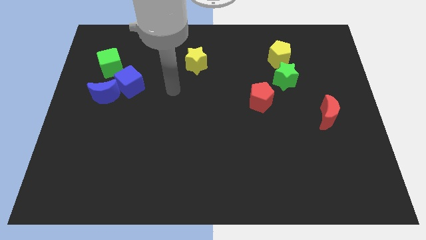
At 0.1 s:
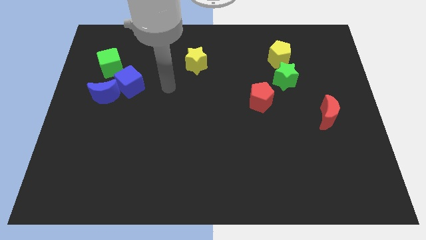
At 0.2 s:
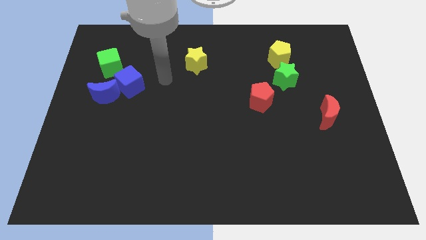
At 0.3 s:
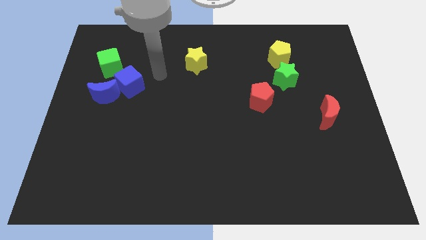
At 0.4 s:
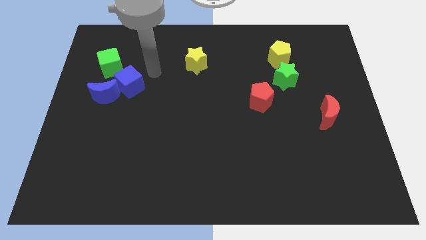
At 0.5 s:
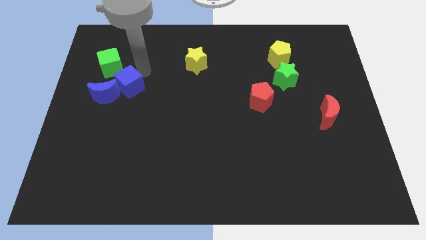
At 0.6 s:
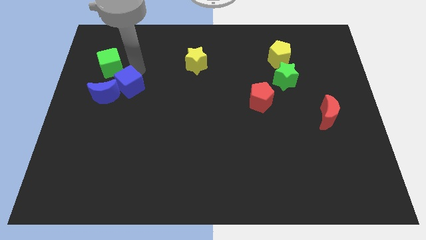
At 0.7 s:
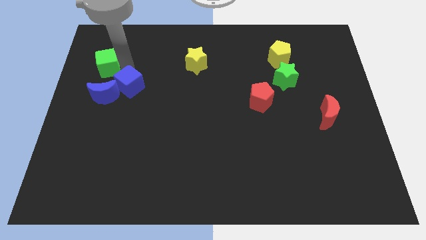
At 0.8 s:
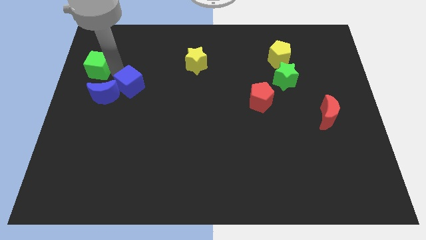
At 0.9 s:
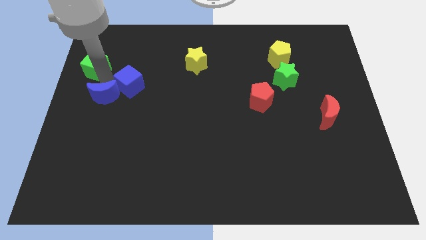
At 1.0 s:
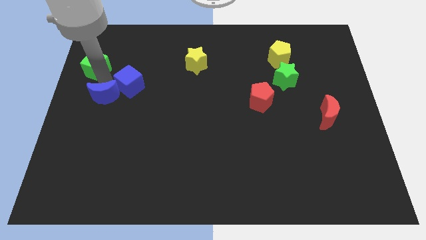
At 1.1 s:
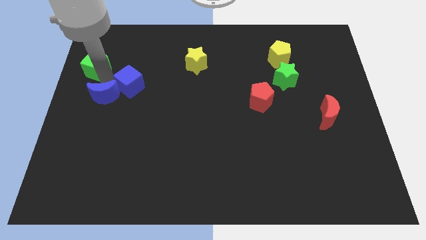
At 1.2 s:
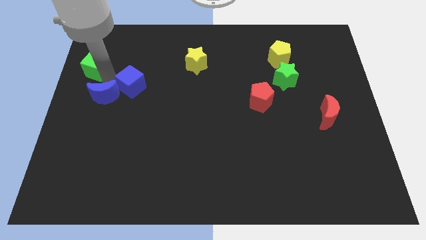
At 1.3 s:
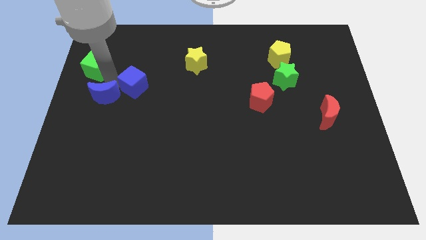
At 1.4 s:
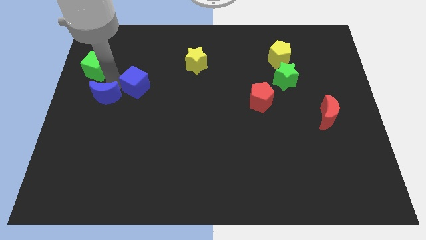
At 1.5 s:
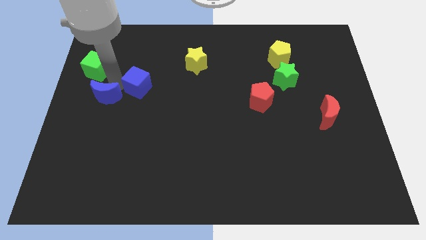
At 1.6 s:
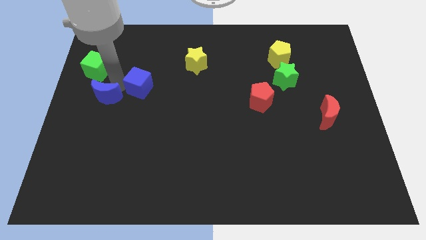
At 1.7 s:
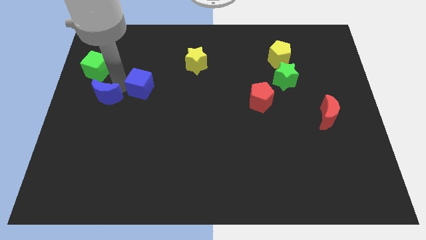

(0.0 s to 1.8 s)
separate the blue cube from the blue moon and green cube

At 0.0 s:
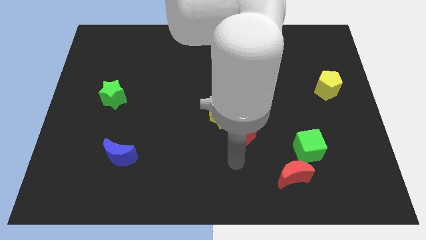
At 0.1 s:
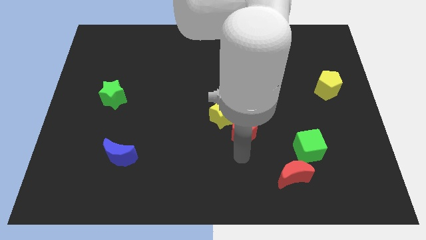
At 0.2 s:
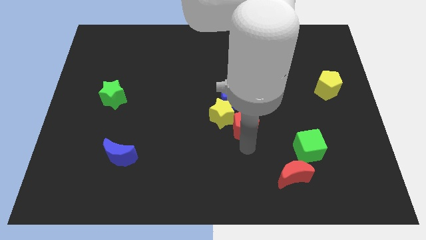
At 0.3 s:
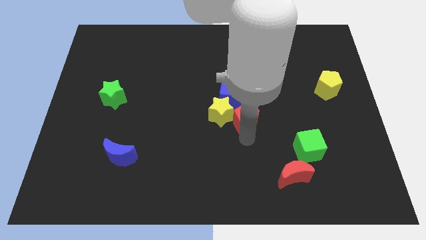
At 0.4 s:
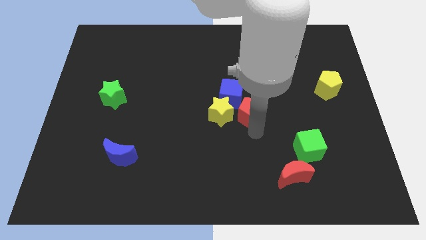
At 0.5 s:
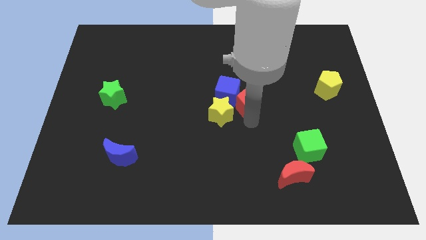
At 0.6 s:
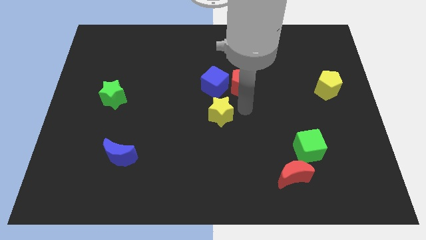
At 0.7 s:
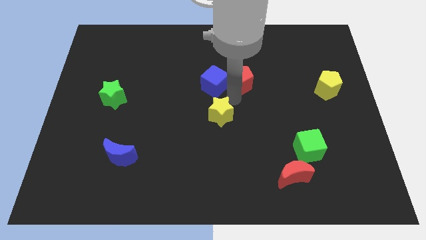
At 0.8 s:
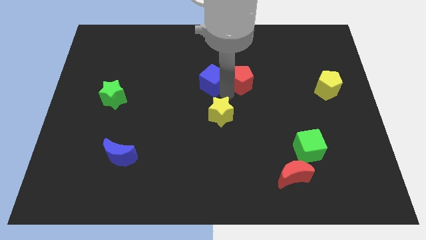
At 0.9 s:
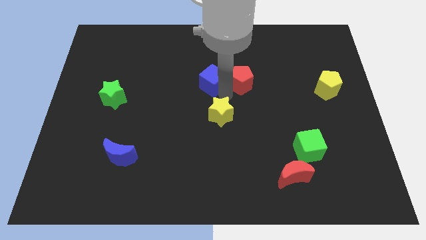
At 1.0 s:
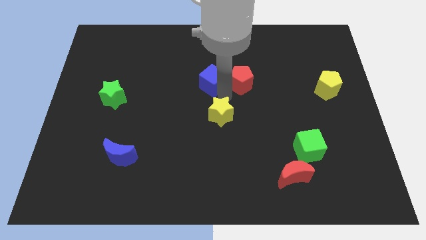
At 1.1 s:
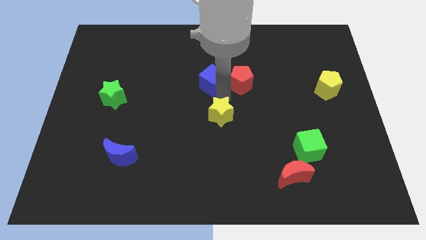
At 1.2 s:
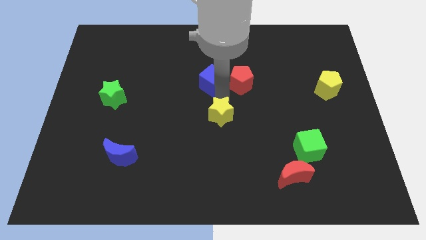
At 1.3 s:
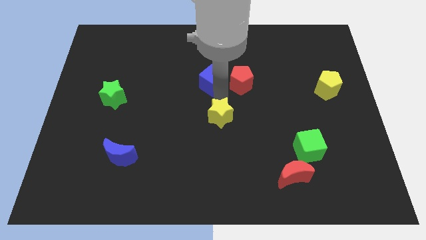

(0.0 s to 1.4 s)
pull the yellow star apart from the blue cube and red pentagon

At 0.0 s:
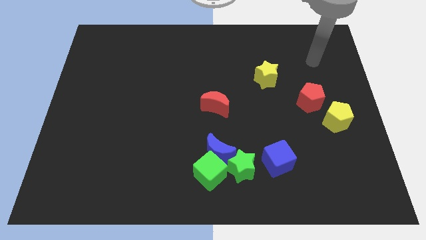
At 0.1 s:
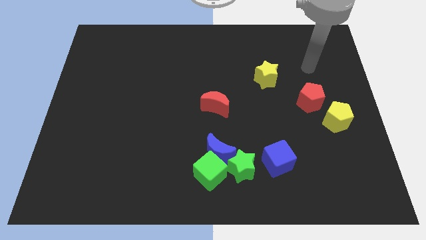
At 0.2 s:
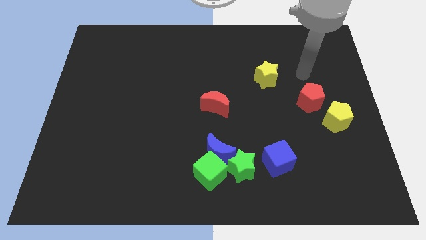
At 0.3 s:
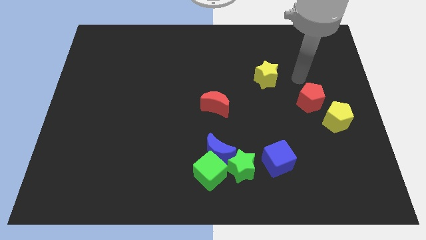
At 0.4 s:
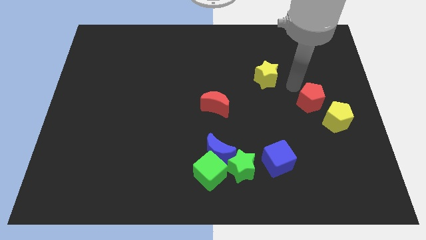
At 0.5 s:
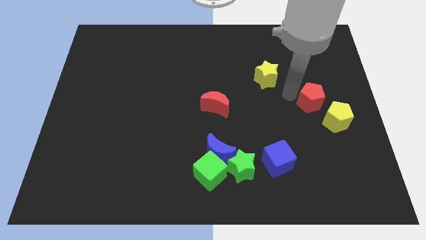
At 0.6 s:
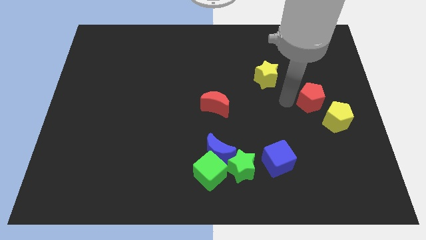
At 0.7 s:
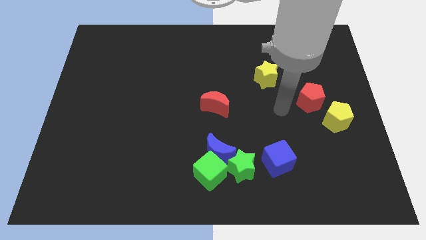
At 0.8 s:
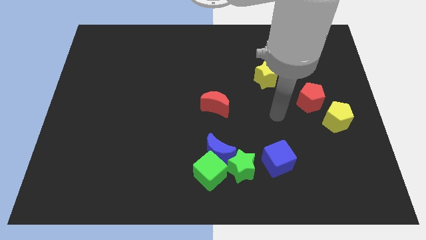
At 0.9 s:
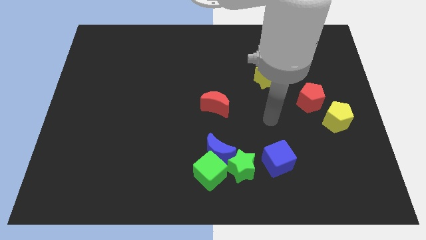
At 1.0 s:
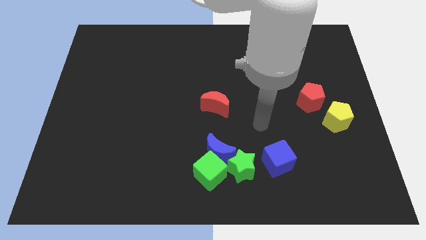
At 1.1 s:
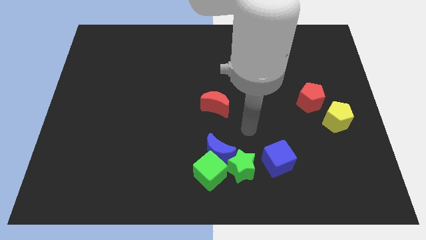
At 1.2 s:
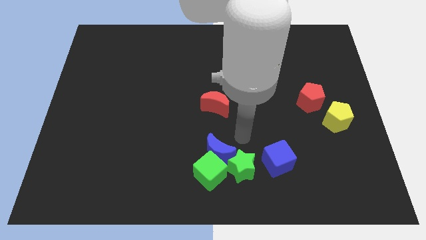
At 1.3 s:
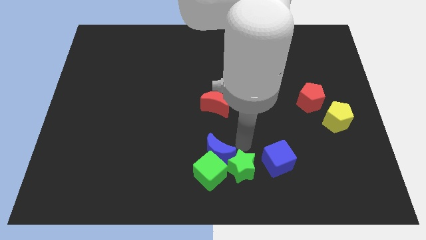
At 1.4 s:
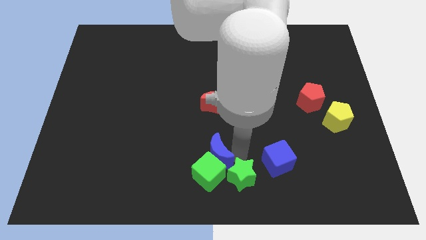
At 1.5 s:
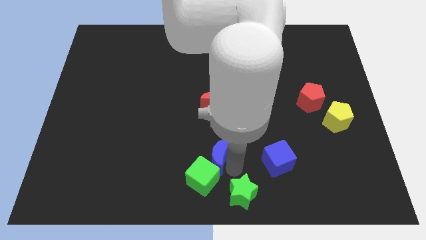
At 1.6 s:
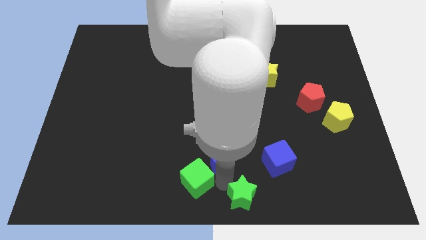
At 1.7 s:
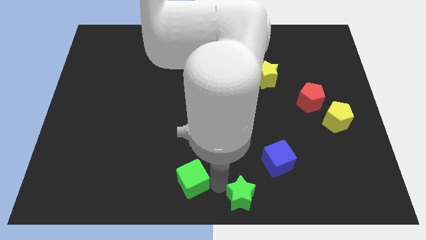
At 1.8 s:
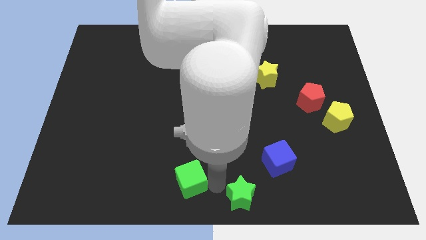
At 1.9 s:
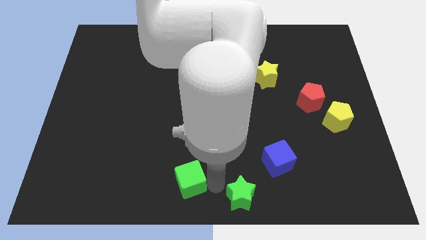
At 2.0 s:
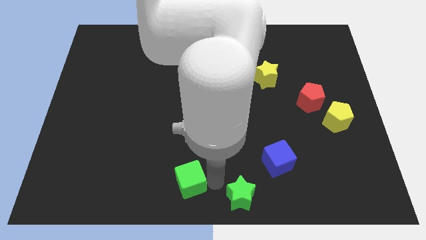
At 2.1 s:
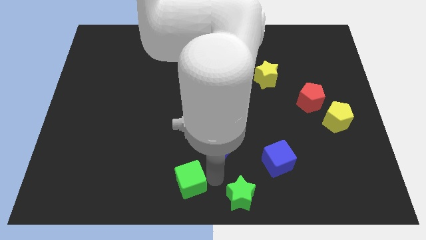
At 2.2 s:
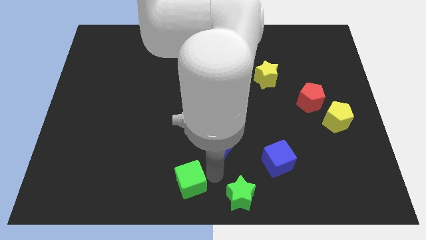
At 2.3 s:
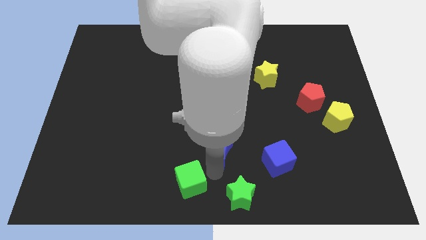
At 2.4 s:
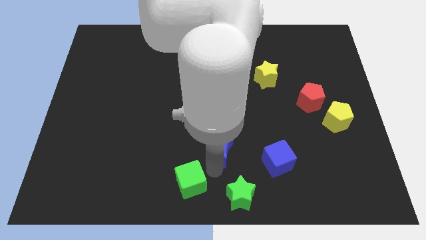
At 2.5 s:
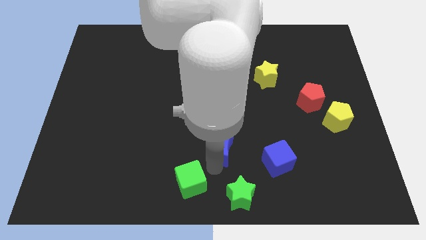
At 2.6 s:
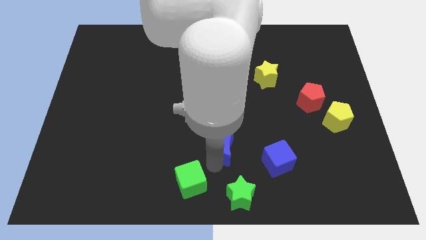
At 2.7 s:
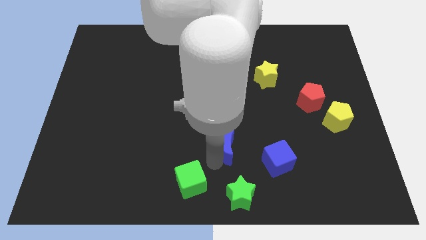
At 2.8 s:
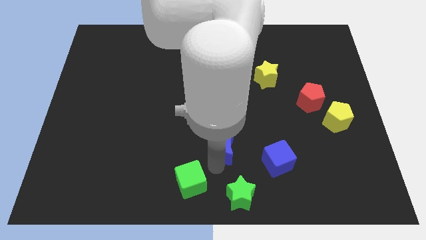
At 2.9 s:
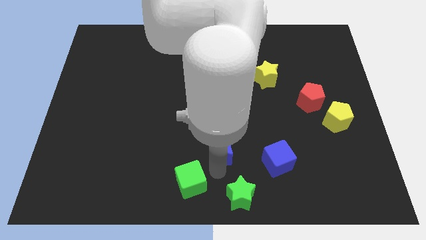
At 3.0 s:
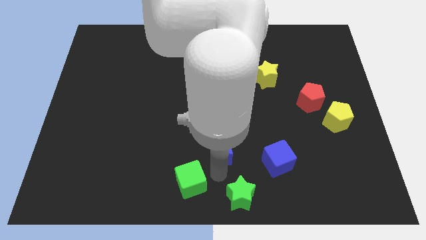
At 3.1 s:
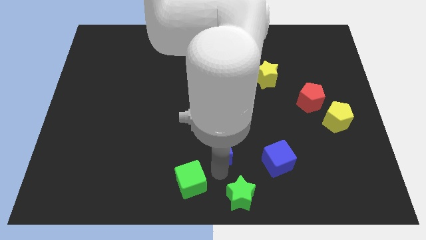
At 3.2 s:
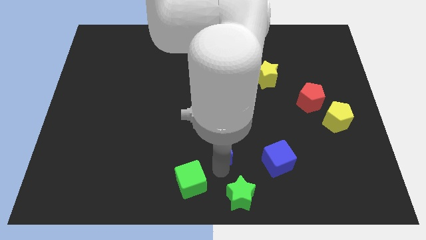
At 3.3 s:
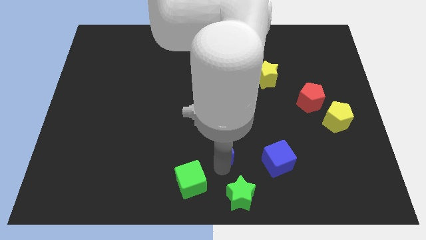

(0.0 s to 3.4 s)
separate the blue moon from the green cube and green star

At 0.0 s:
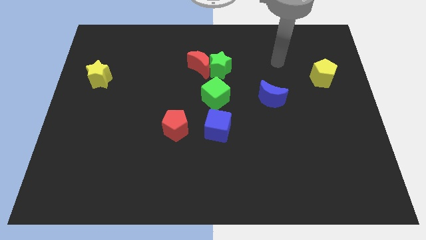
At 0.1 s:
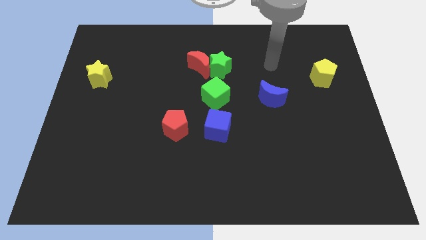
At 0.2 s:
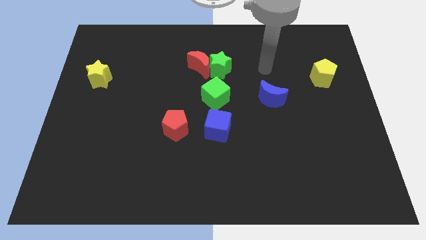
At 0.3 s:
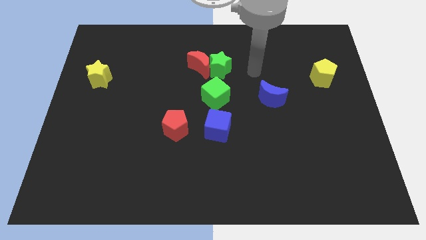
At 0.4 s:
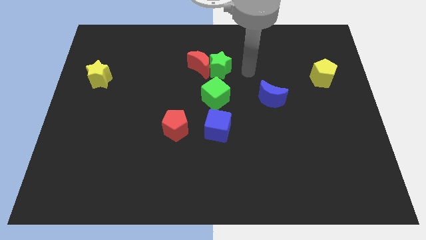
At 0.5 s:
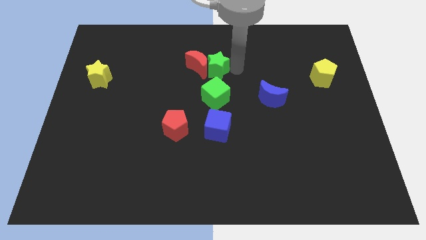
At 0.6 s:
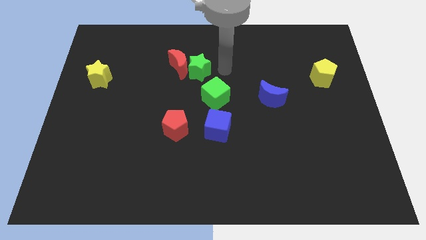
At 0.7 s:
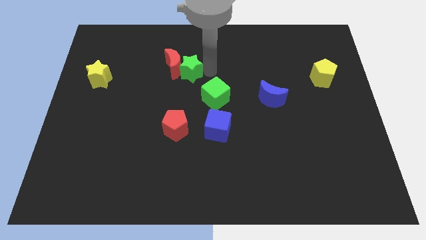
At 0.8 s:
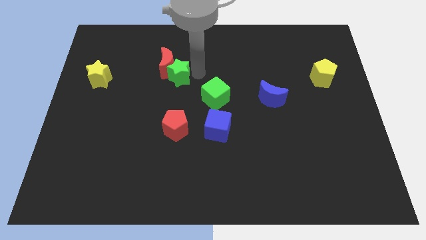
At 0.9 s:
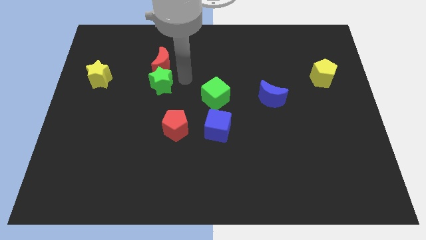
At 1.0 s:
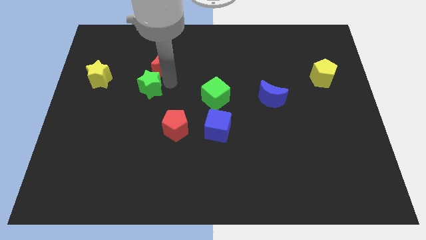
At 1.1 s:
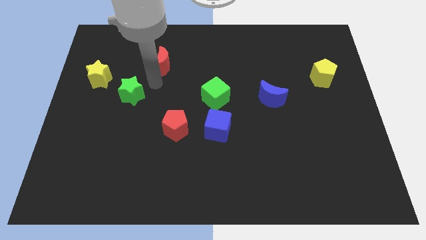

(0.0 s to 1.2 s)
separate the red moon from the green star

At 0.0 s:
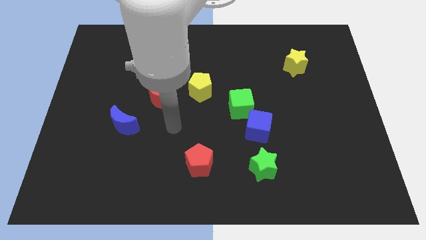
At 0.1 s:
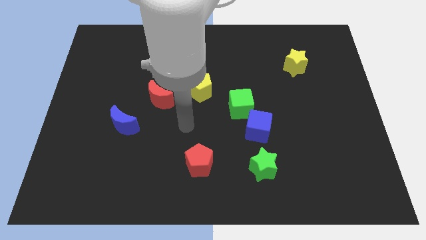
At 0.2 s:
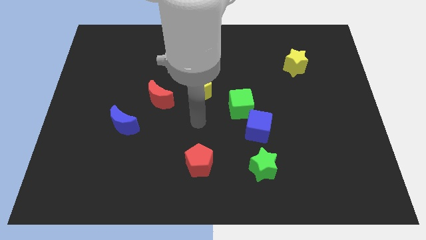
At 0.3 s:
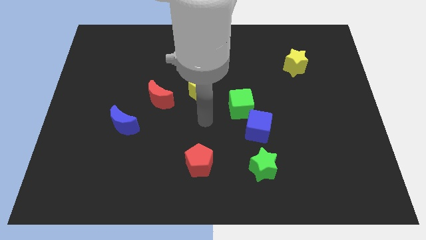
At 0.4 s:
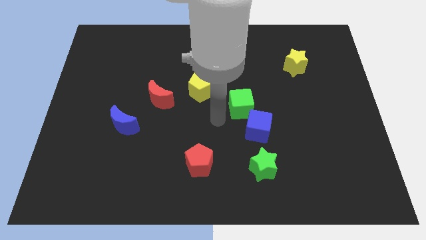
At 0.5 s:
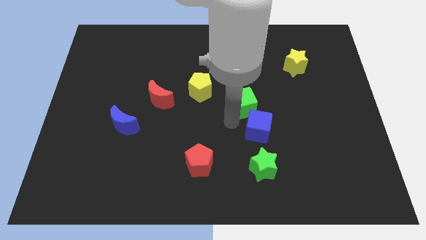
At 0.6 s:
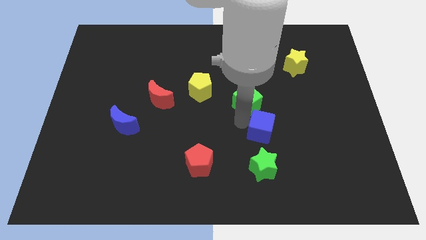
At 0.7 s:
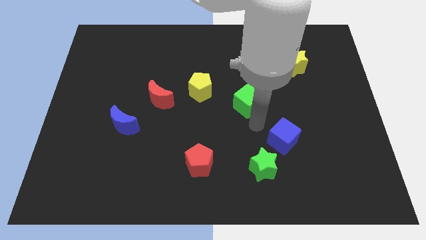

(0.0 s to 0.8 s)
separate the green cube from the blue cube

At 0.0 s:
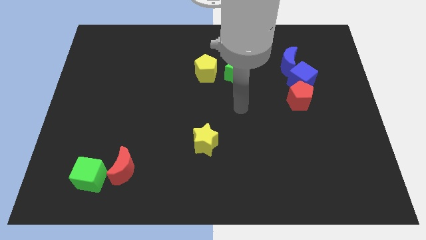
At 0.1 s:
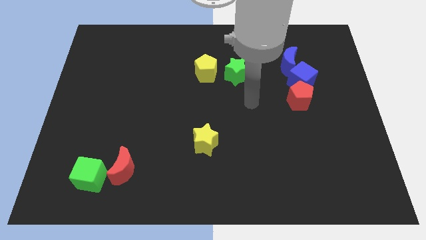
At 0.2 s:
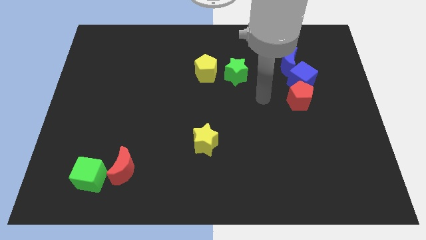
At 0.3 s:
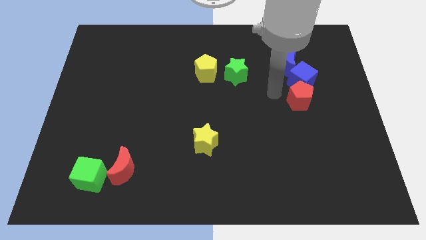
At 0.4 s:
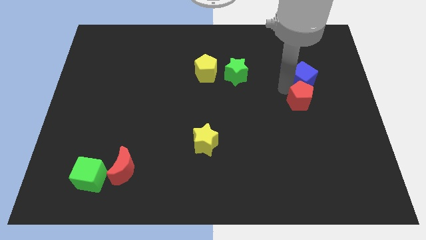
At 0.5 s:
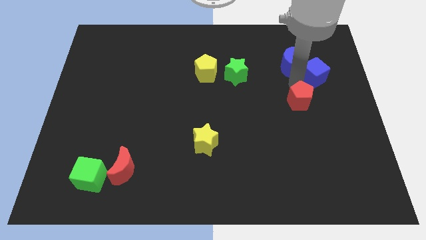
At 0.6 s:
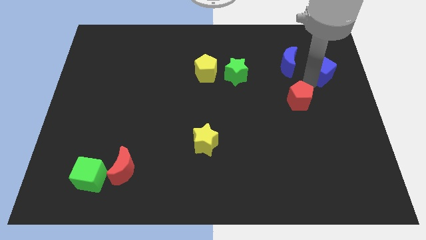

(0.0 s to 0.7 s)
move the red pentagon away from the blue cube
